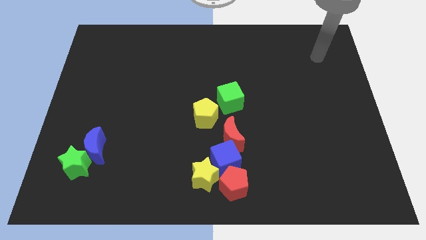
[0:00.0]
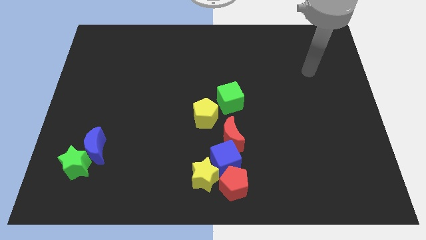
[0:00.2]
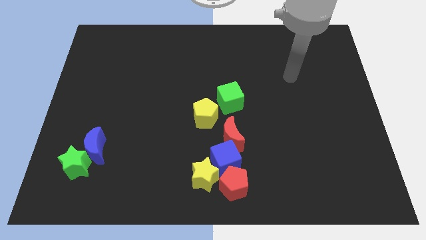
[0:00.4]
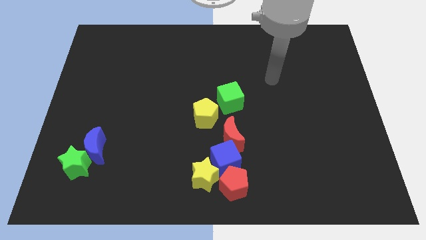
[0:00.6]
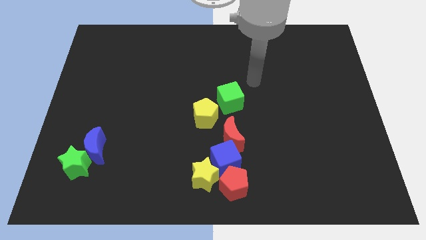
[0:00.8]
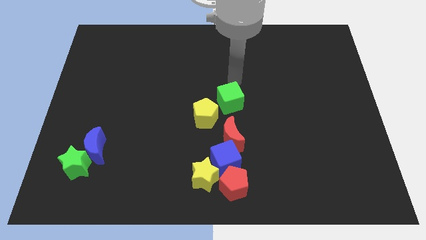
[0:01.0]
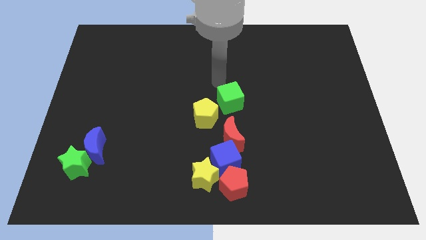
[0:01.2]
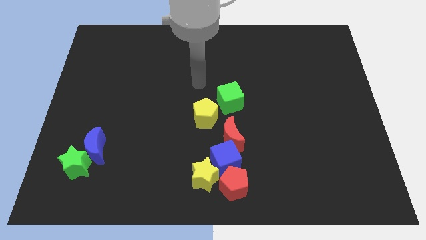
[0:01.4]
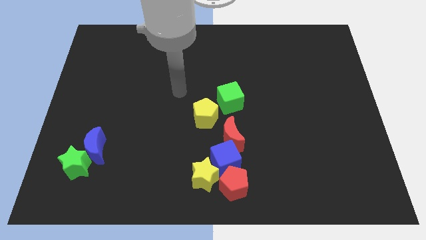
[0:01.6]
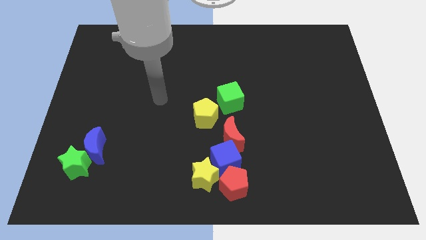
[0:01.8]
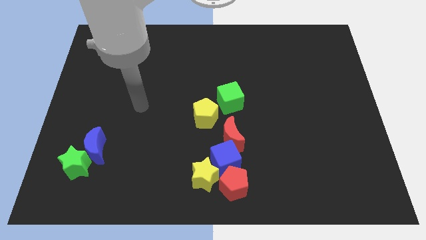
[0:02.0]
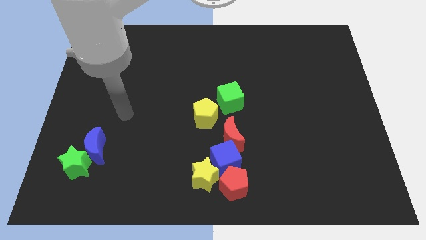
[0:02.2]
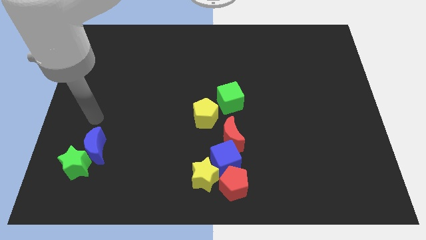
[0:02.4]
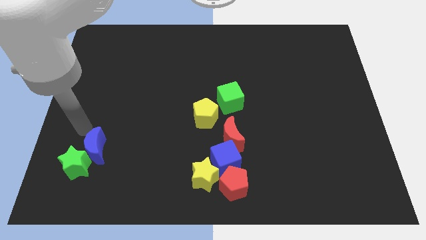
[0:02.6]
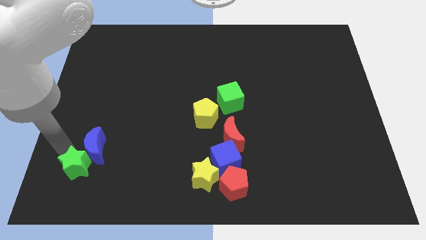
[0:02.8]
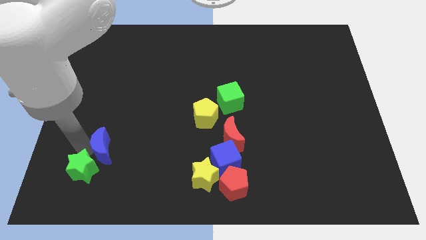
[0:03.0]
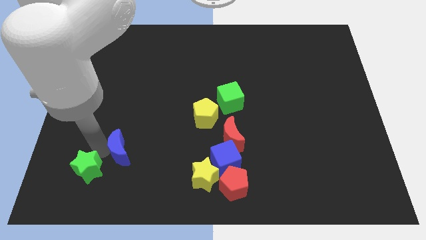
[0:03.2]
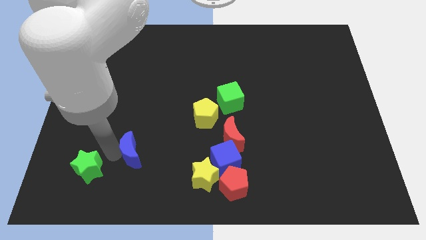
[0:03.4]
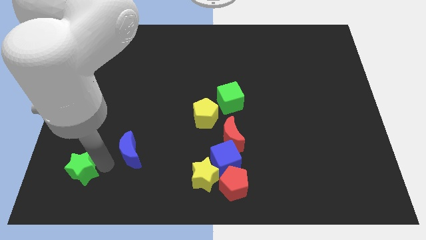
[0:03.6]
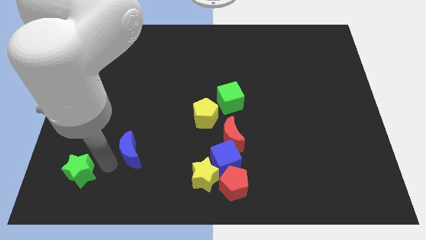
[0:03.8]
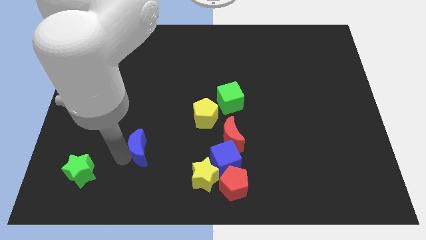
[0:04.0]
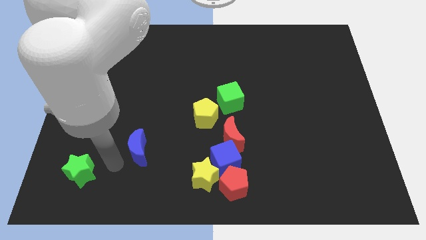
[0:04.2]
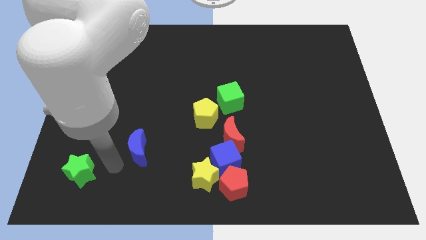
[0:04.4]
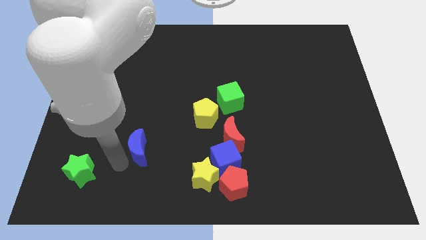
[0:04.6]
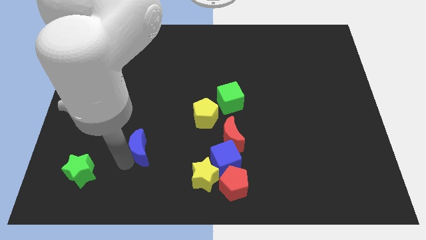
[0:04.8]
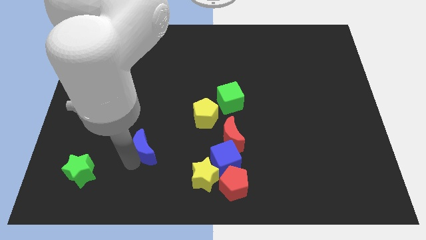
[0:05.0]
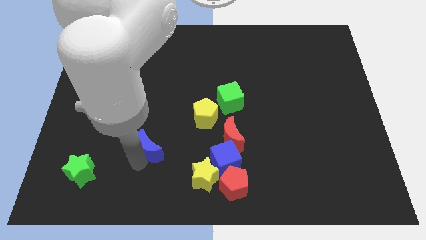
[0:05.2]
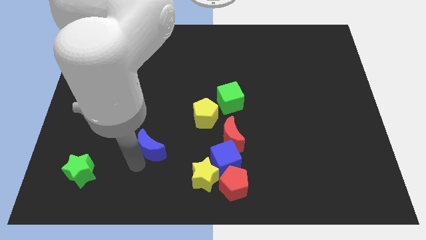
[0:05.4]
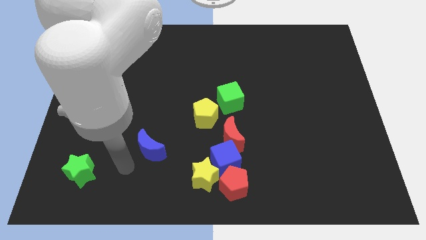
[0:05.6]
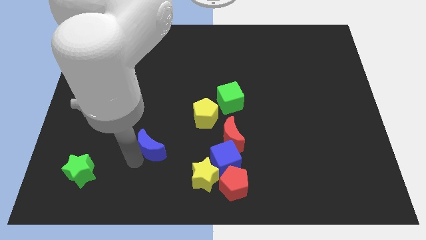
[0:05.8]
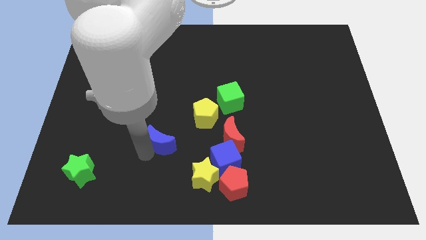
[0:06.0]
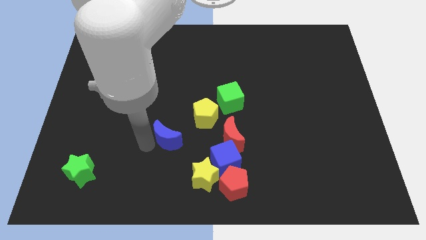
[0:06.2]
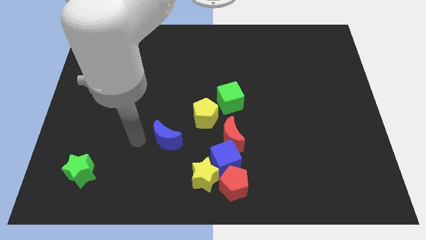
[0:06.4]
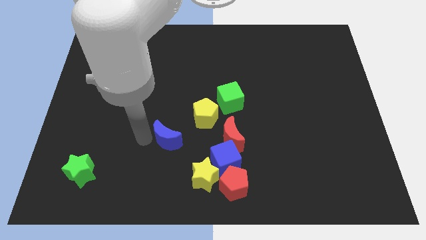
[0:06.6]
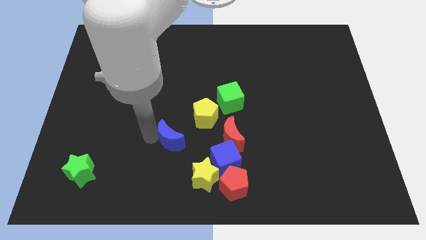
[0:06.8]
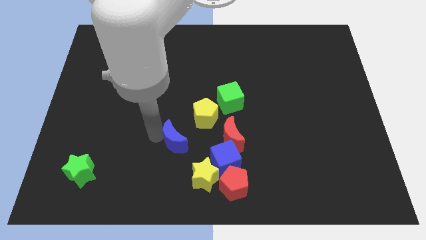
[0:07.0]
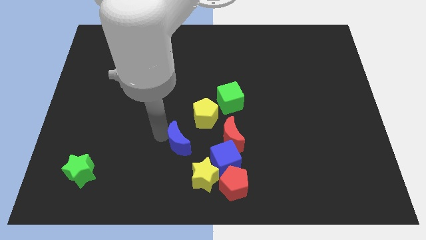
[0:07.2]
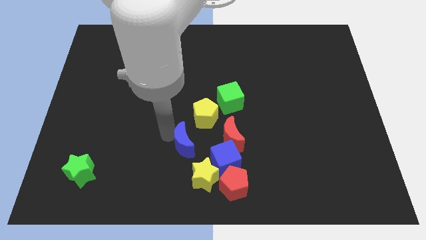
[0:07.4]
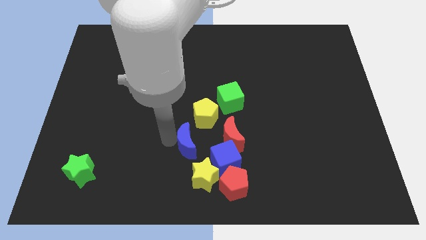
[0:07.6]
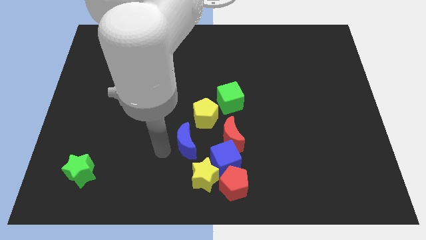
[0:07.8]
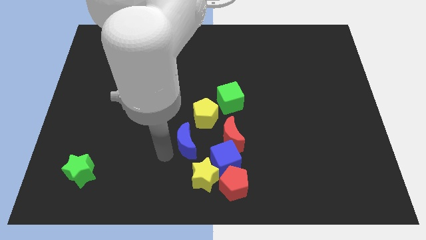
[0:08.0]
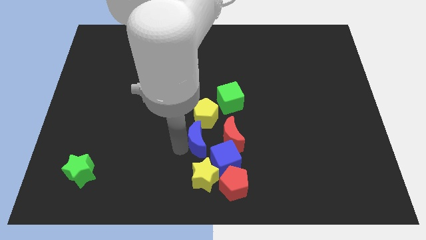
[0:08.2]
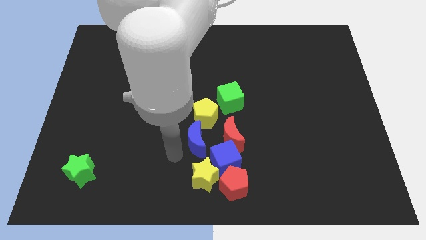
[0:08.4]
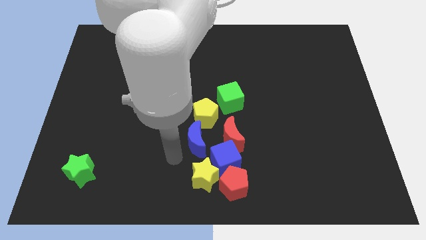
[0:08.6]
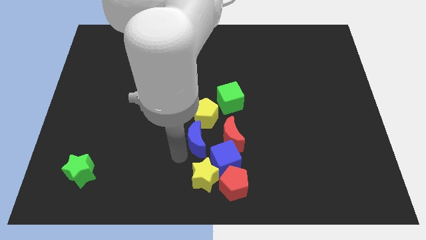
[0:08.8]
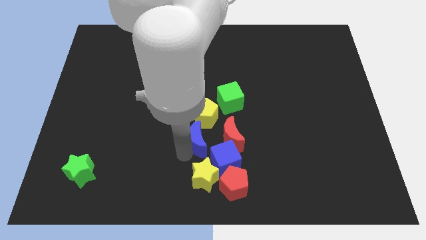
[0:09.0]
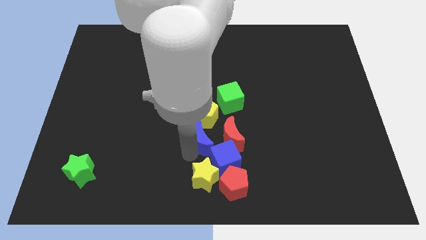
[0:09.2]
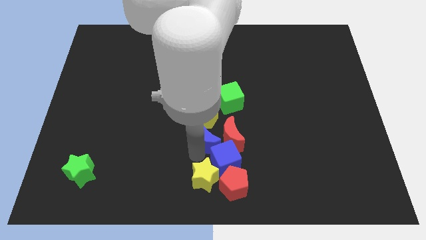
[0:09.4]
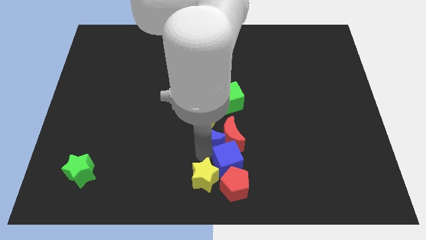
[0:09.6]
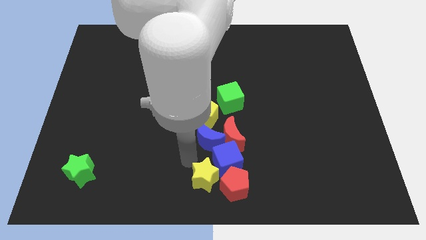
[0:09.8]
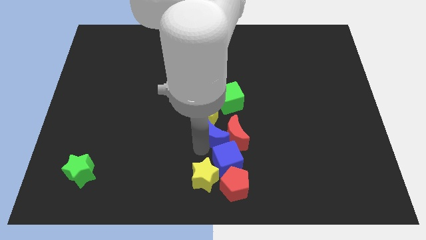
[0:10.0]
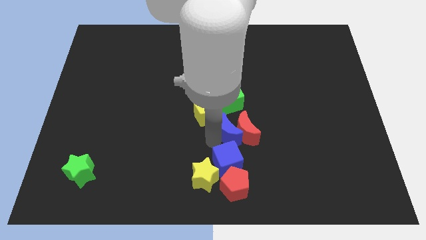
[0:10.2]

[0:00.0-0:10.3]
move the blue moon to the top right side of the blue cube

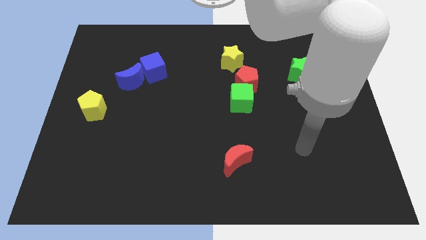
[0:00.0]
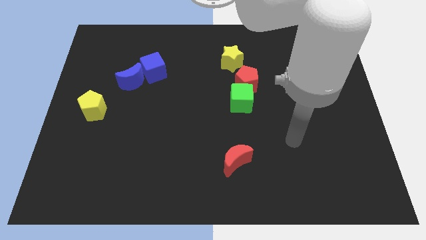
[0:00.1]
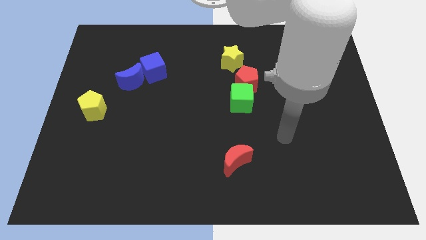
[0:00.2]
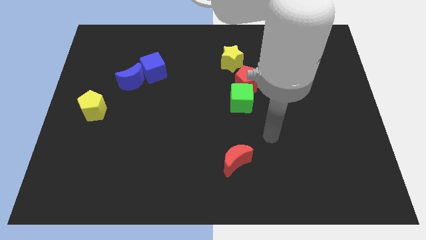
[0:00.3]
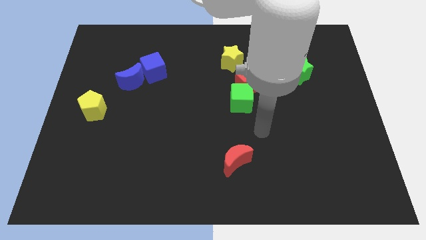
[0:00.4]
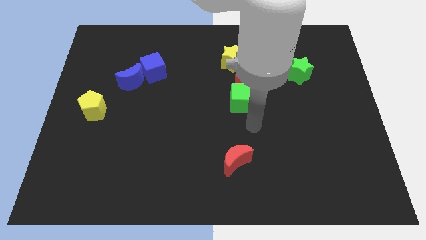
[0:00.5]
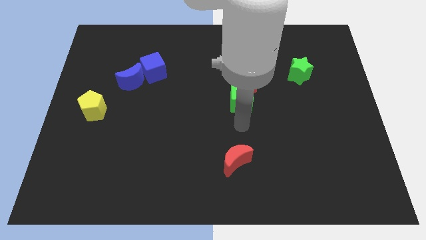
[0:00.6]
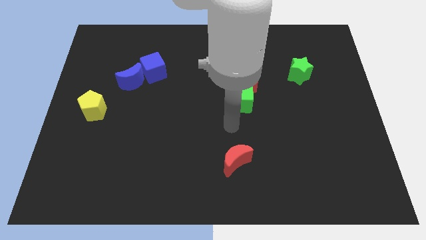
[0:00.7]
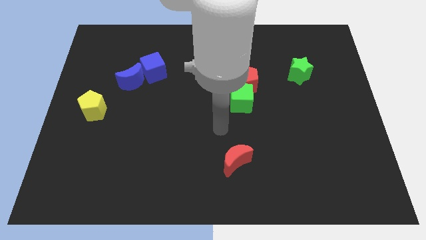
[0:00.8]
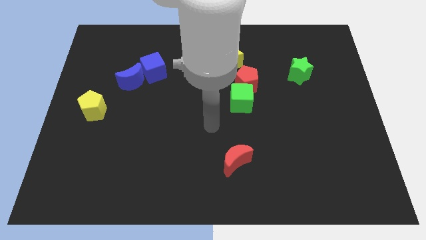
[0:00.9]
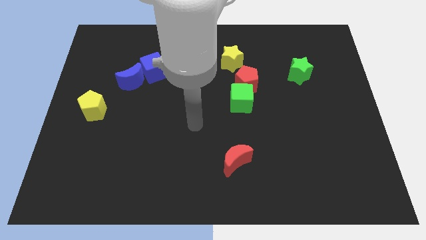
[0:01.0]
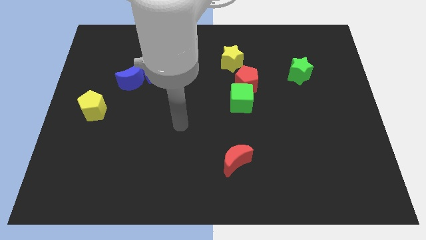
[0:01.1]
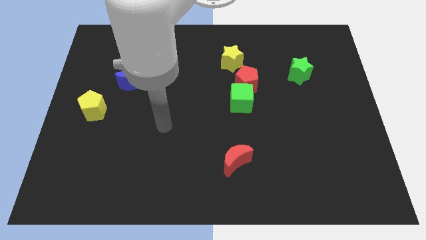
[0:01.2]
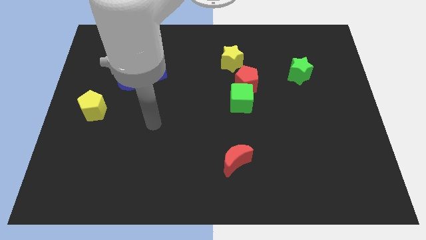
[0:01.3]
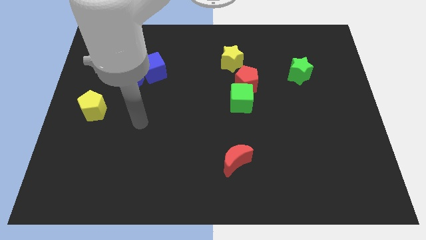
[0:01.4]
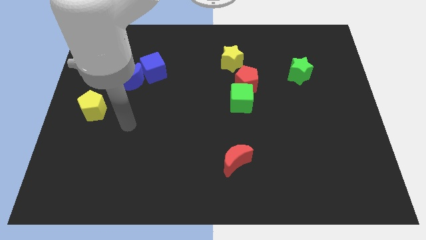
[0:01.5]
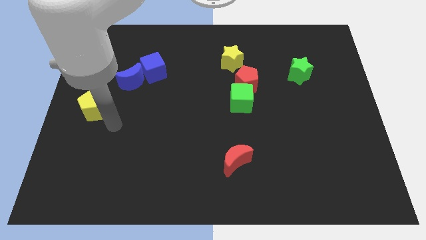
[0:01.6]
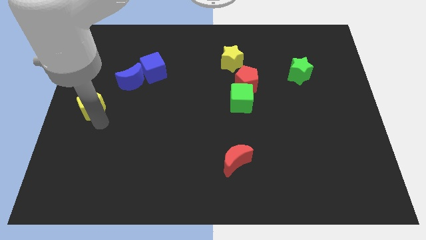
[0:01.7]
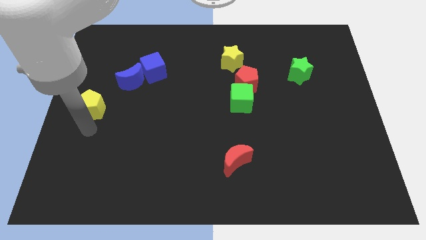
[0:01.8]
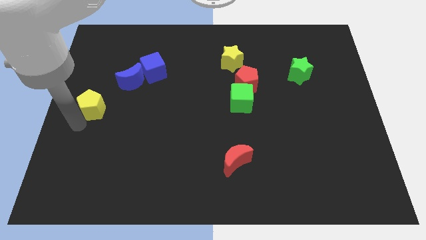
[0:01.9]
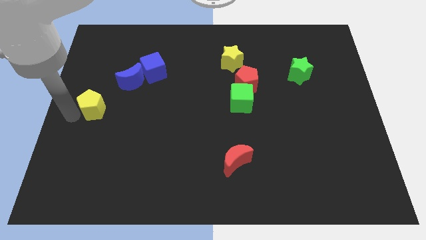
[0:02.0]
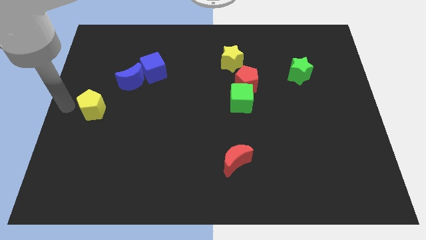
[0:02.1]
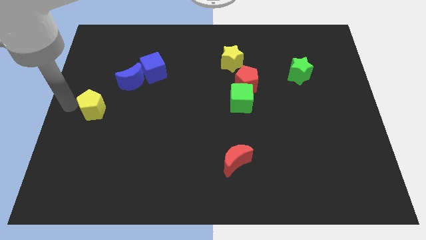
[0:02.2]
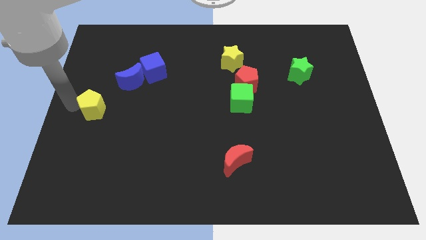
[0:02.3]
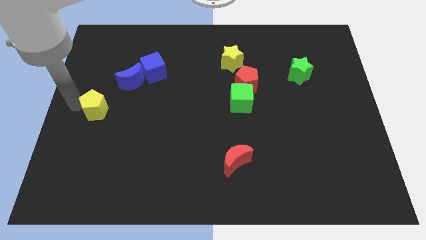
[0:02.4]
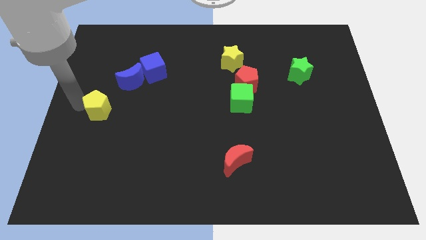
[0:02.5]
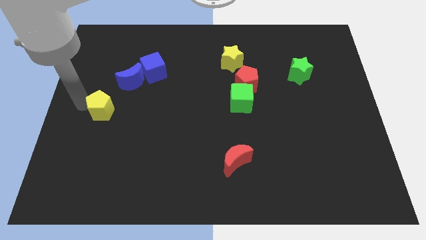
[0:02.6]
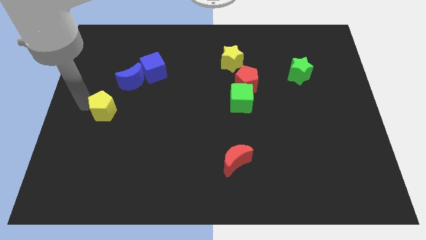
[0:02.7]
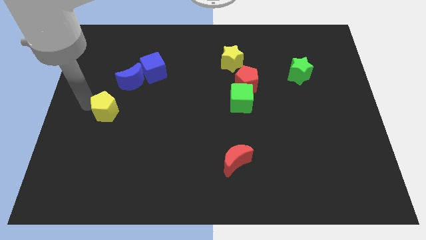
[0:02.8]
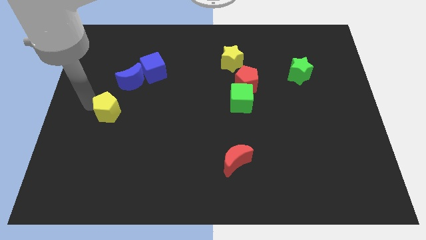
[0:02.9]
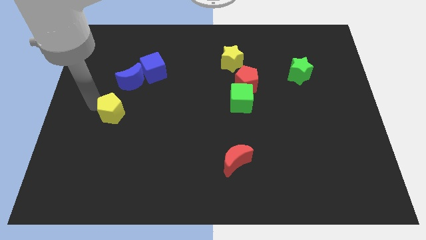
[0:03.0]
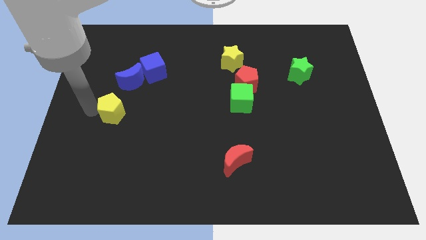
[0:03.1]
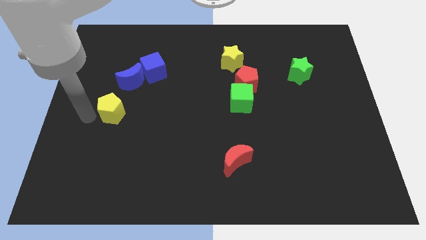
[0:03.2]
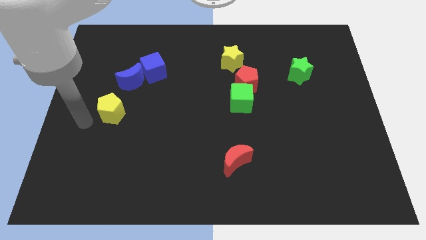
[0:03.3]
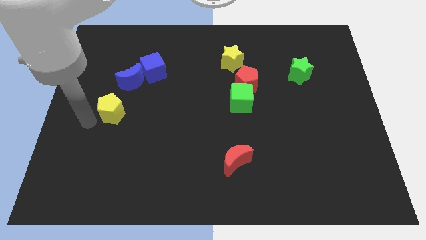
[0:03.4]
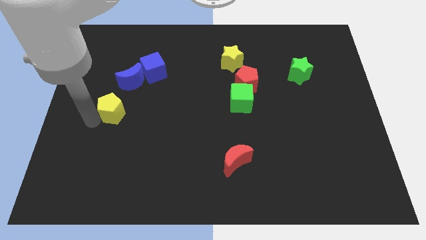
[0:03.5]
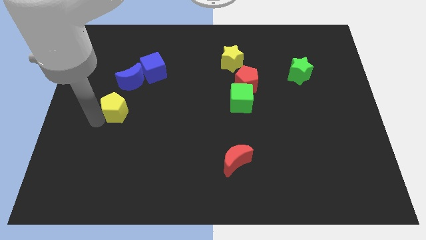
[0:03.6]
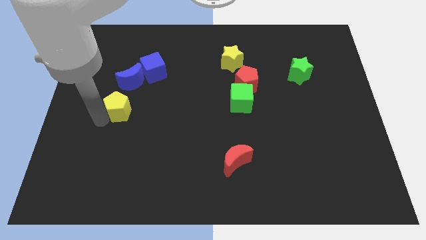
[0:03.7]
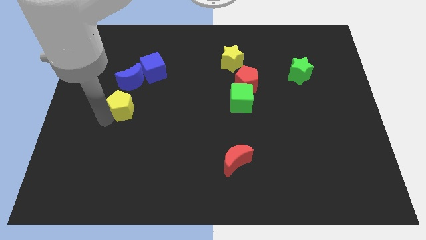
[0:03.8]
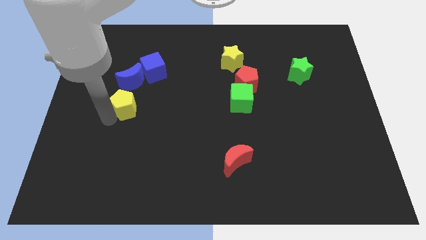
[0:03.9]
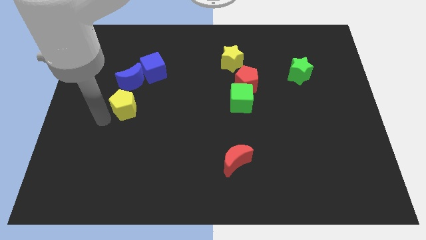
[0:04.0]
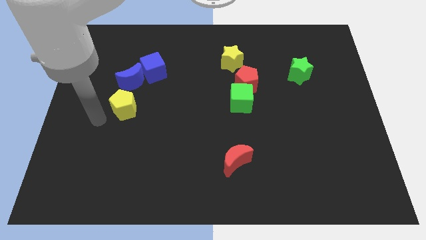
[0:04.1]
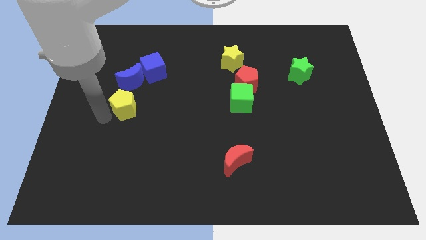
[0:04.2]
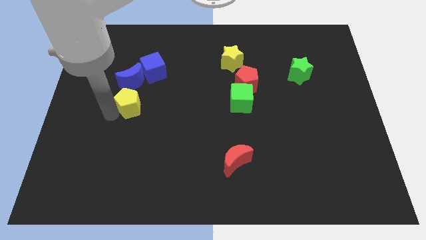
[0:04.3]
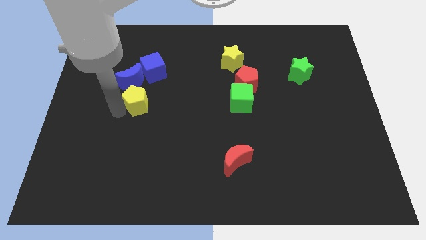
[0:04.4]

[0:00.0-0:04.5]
slide the yellow pentagon diagonally down and to the right of the blue moon
